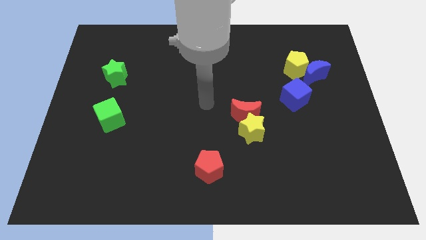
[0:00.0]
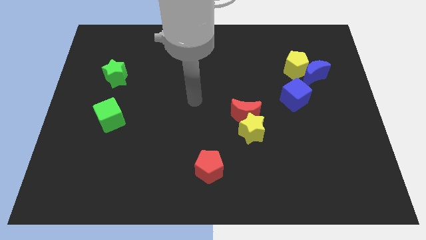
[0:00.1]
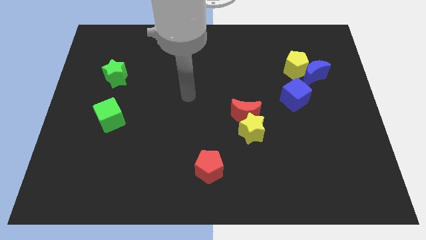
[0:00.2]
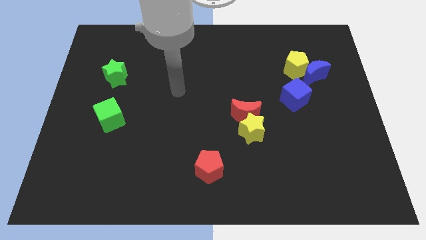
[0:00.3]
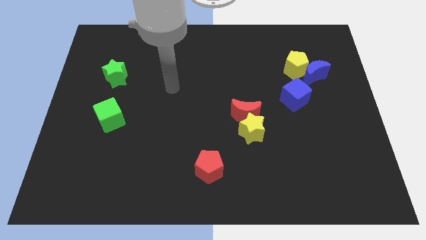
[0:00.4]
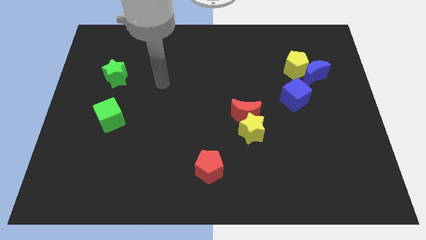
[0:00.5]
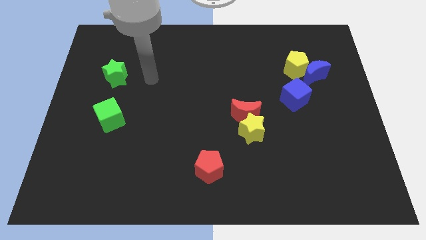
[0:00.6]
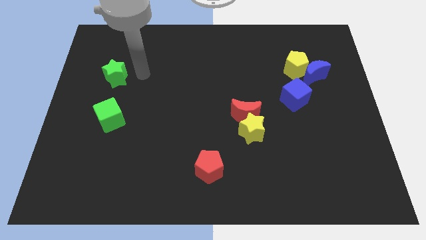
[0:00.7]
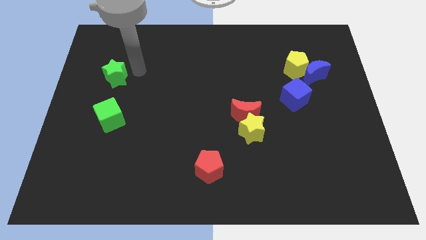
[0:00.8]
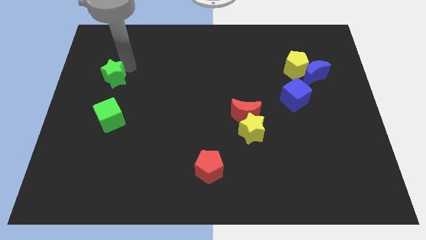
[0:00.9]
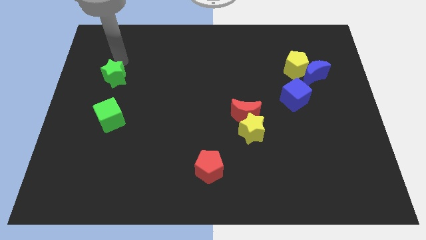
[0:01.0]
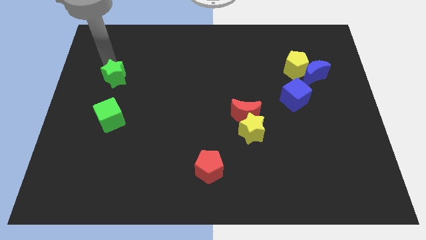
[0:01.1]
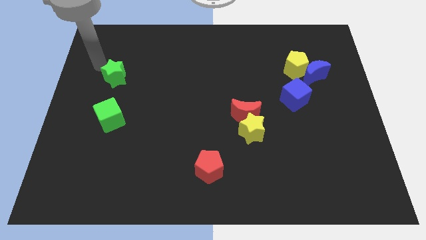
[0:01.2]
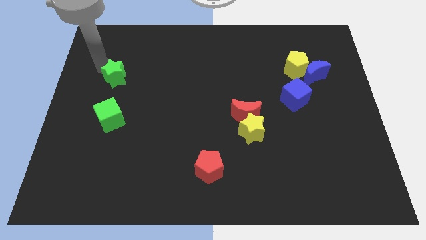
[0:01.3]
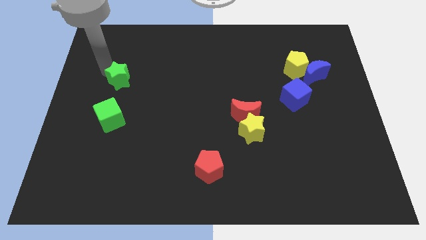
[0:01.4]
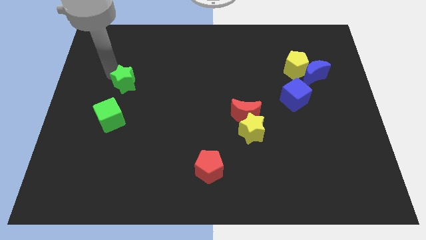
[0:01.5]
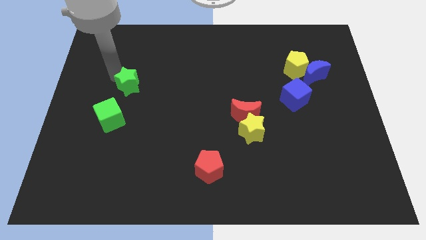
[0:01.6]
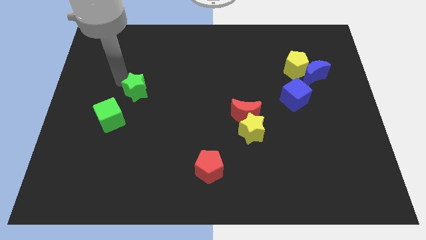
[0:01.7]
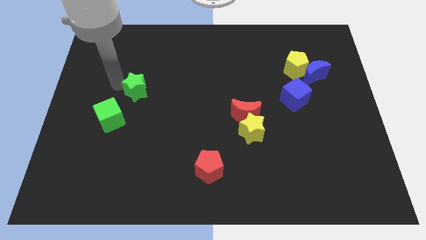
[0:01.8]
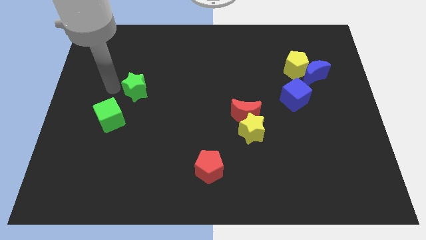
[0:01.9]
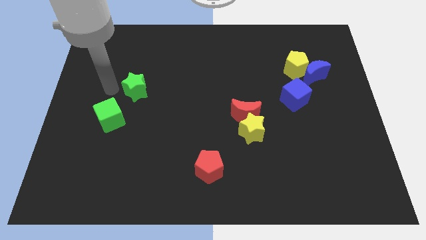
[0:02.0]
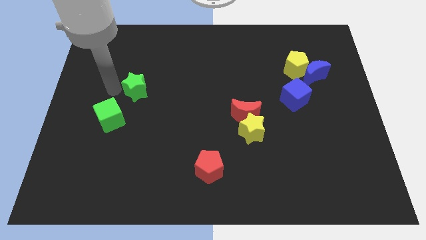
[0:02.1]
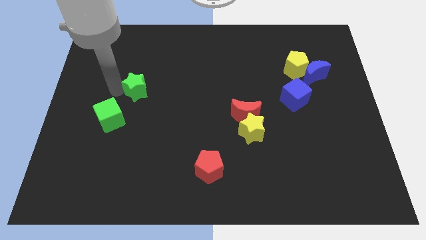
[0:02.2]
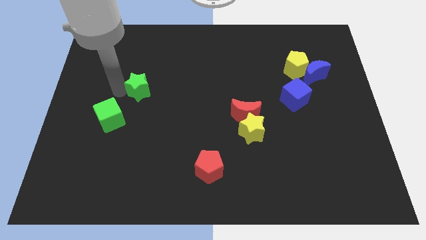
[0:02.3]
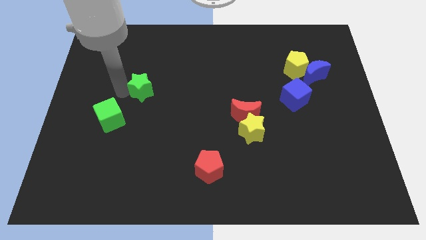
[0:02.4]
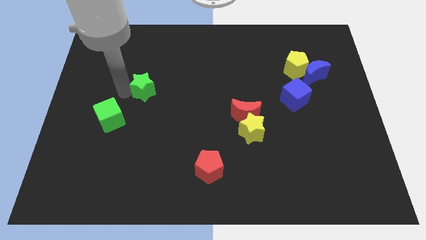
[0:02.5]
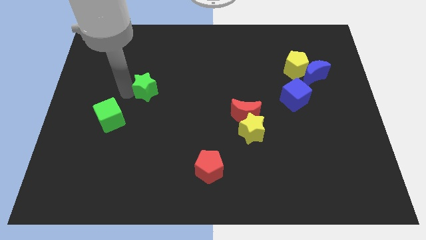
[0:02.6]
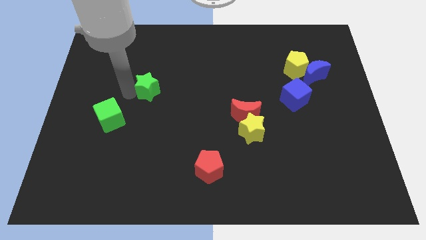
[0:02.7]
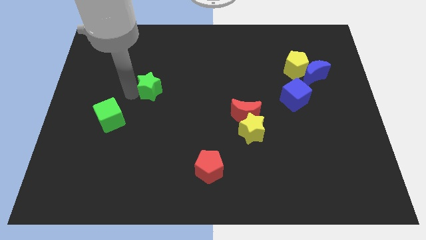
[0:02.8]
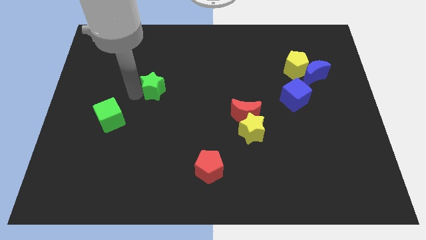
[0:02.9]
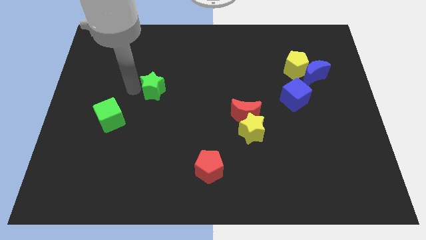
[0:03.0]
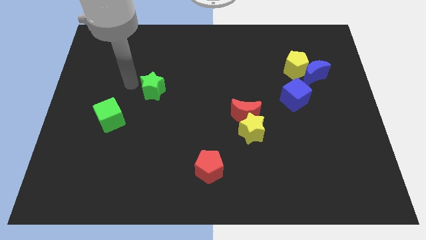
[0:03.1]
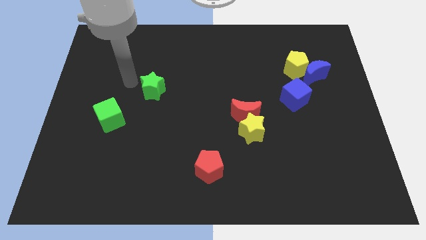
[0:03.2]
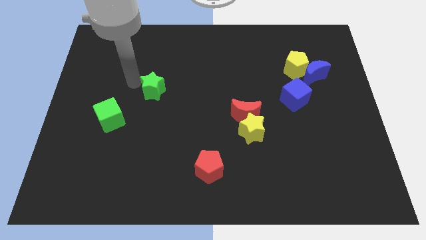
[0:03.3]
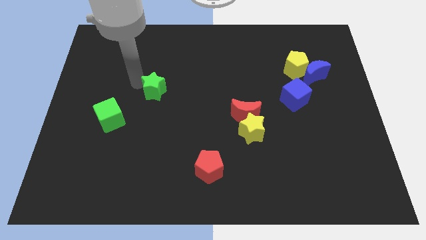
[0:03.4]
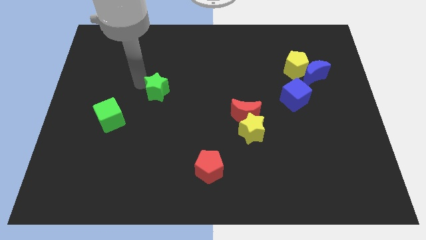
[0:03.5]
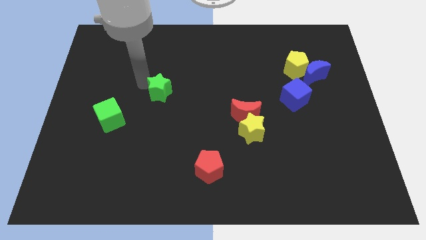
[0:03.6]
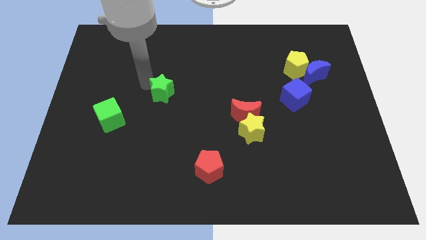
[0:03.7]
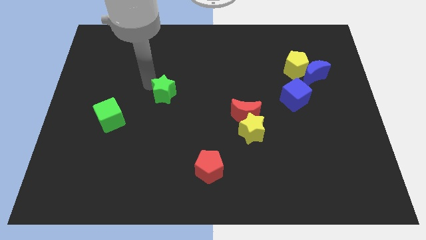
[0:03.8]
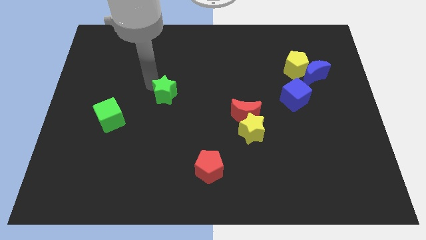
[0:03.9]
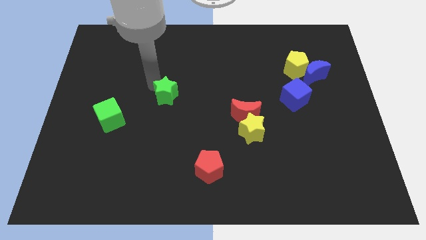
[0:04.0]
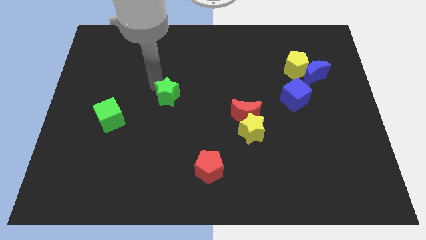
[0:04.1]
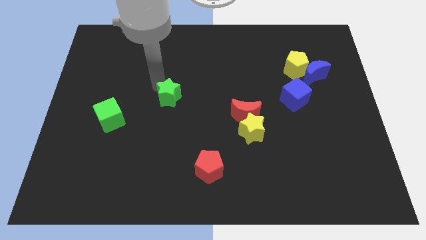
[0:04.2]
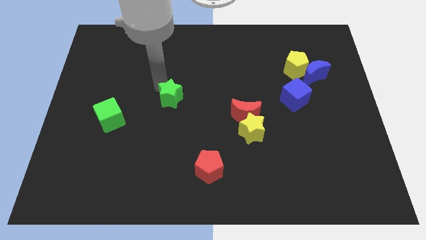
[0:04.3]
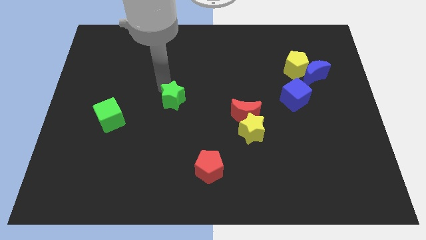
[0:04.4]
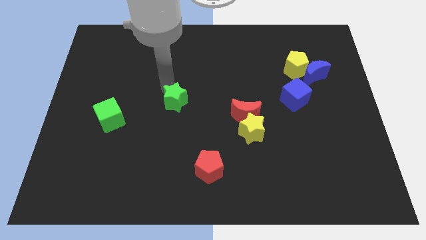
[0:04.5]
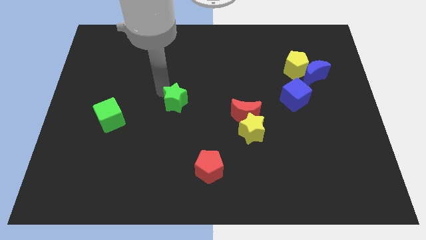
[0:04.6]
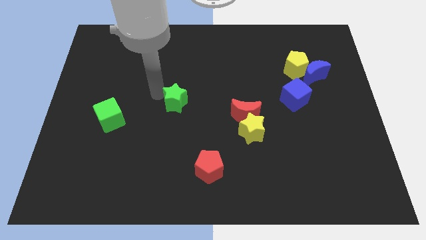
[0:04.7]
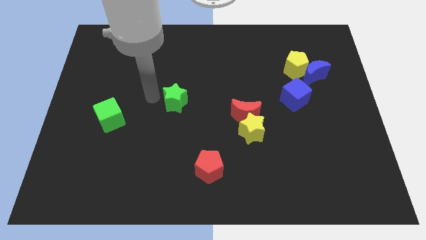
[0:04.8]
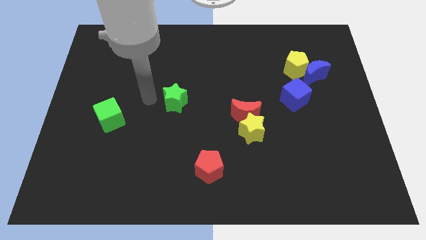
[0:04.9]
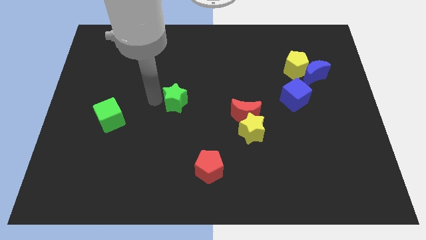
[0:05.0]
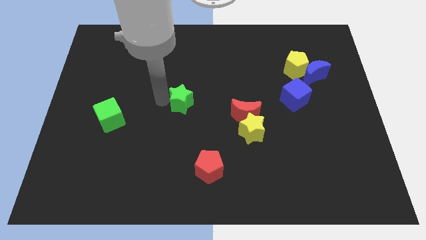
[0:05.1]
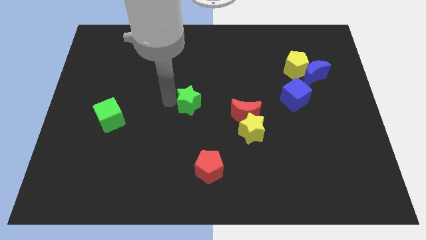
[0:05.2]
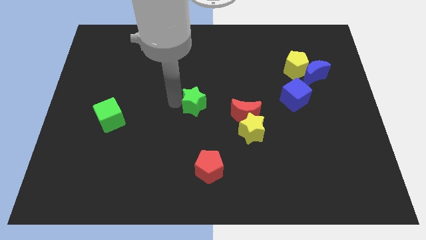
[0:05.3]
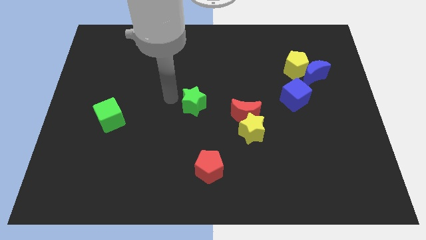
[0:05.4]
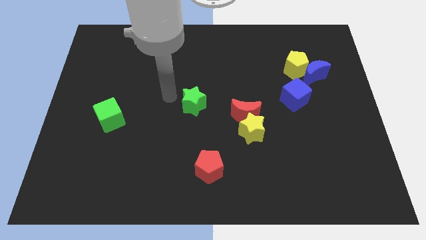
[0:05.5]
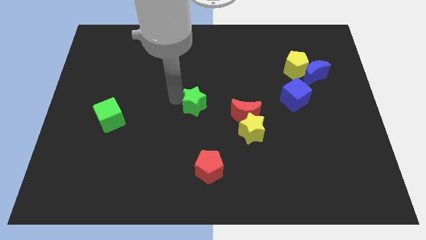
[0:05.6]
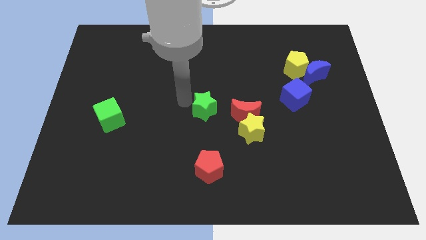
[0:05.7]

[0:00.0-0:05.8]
push the green star to the top left of the yellow star
